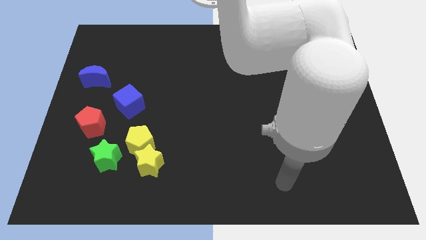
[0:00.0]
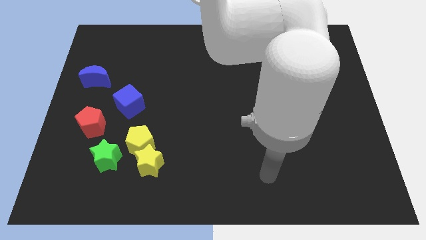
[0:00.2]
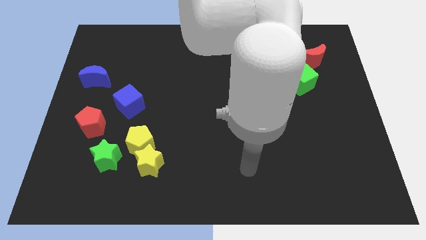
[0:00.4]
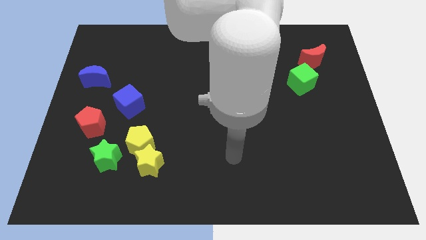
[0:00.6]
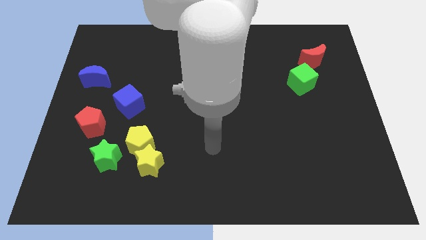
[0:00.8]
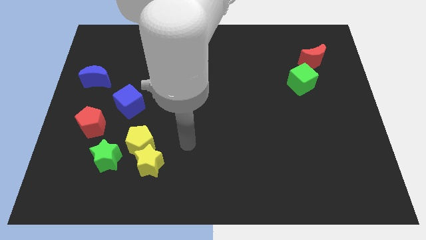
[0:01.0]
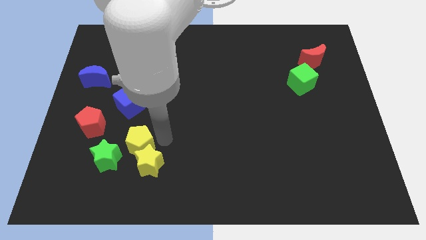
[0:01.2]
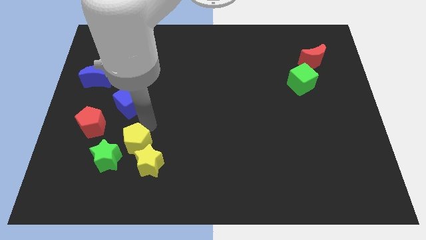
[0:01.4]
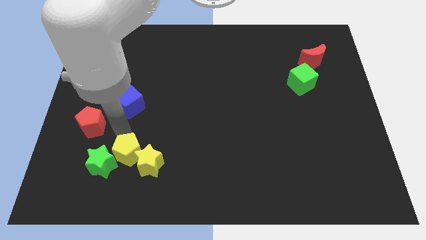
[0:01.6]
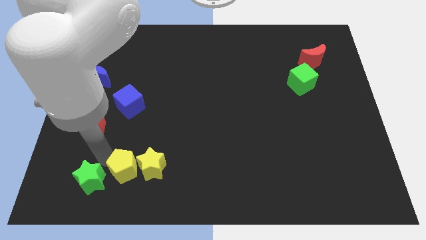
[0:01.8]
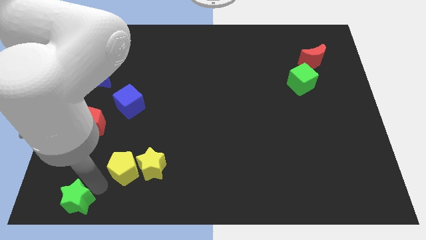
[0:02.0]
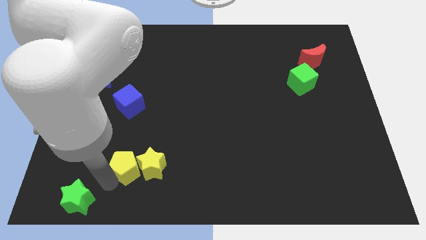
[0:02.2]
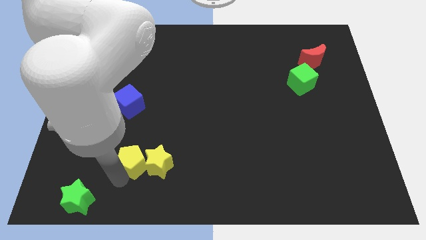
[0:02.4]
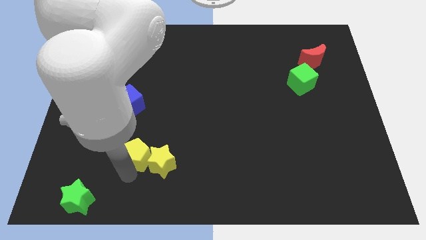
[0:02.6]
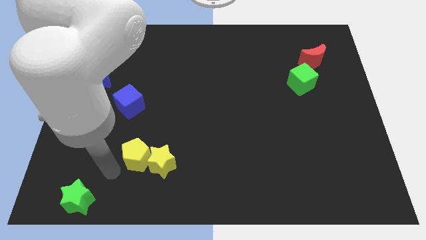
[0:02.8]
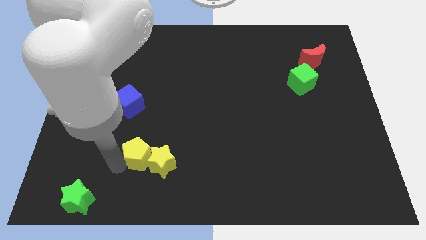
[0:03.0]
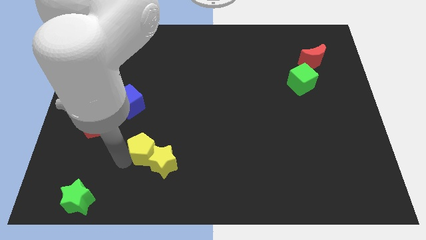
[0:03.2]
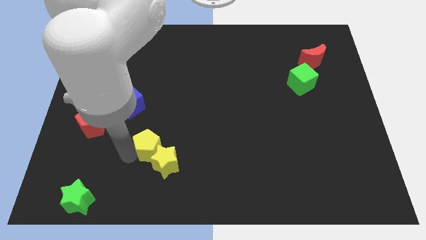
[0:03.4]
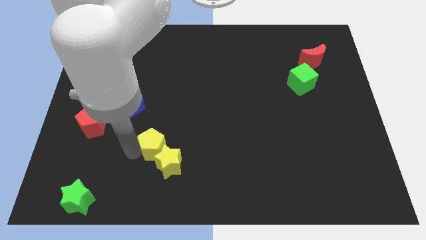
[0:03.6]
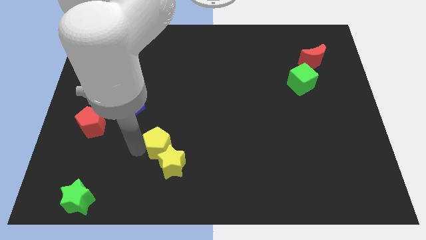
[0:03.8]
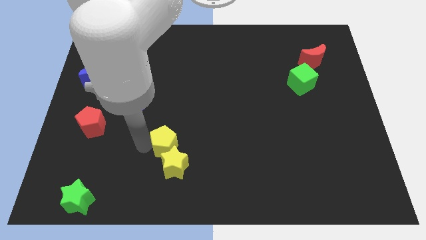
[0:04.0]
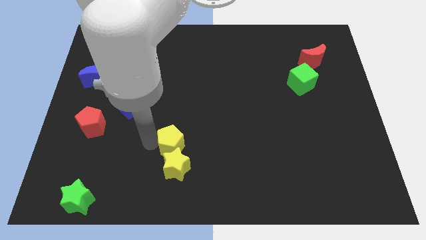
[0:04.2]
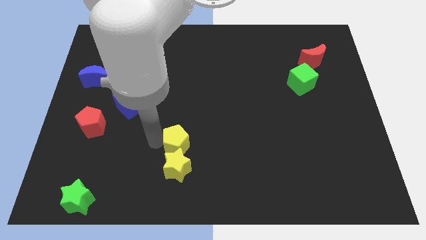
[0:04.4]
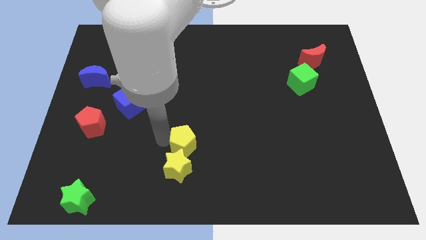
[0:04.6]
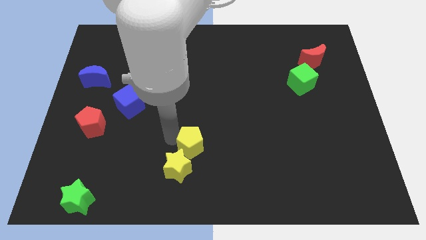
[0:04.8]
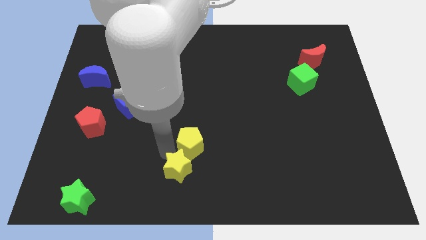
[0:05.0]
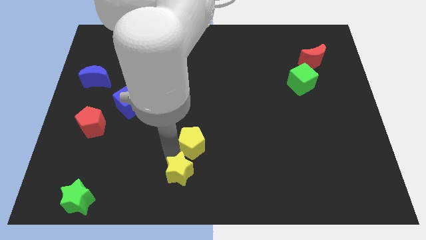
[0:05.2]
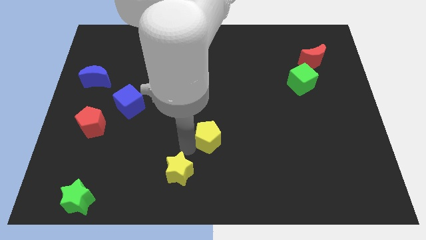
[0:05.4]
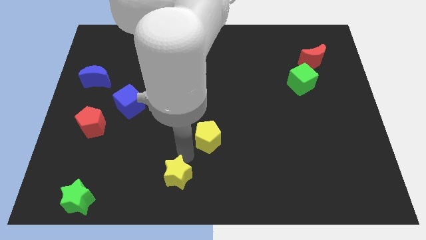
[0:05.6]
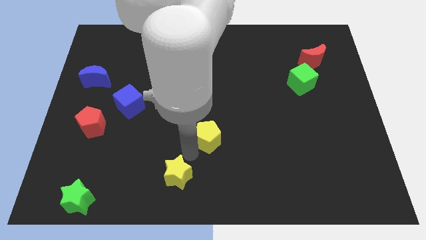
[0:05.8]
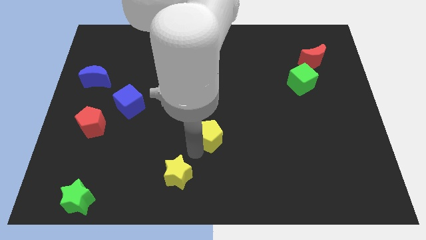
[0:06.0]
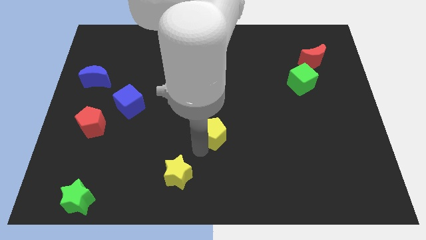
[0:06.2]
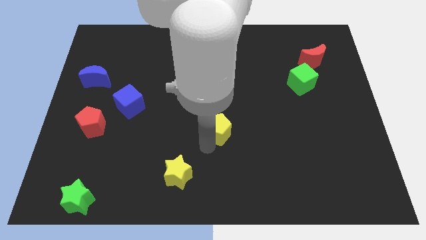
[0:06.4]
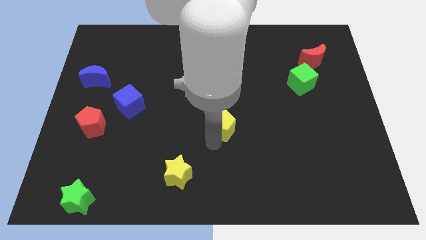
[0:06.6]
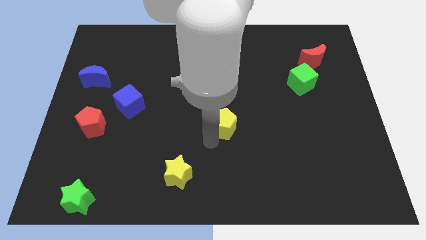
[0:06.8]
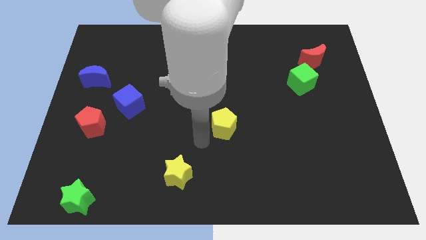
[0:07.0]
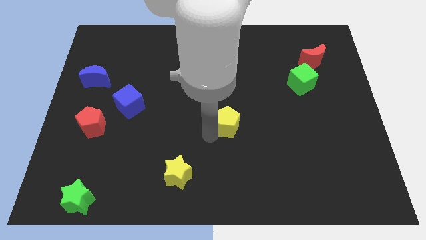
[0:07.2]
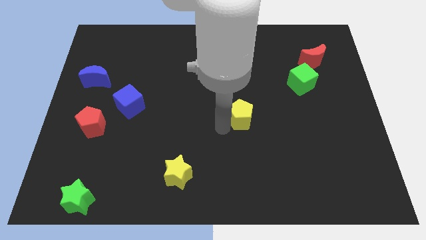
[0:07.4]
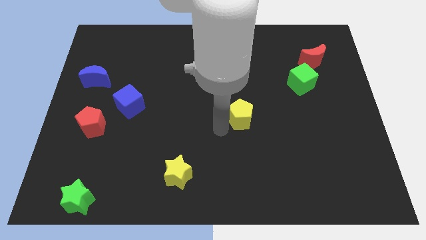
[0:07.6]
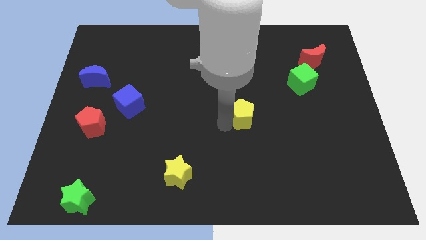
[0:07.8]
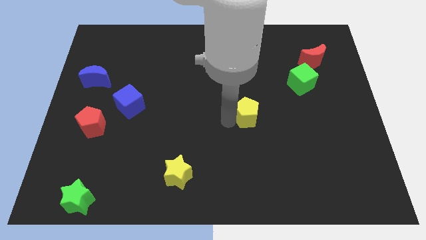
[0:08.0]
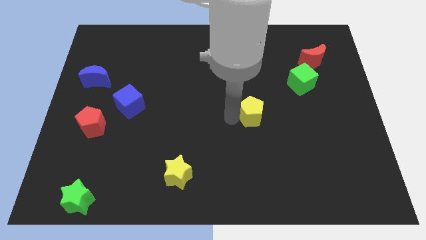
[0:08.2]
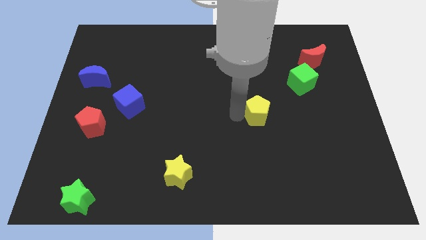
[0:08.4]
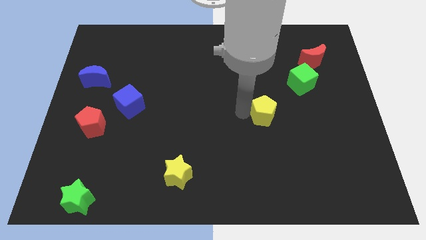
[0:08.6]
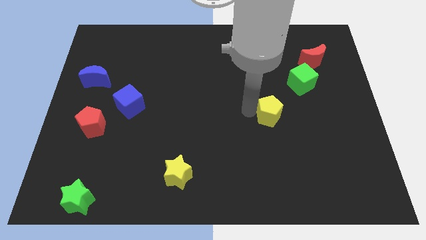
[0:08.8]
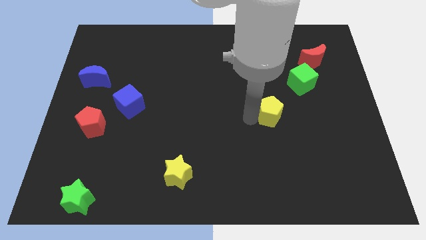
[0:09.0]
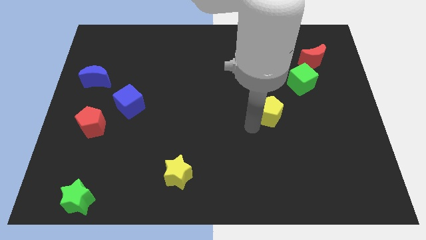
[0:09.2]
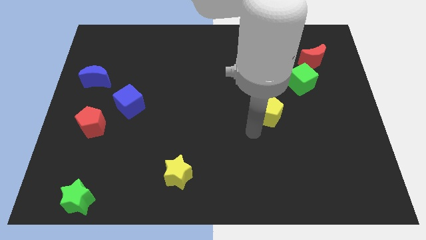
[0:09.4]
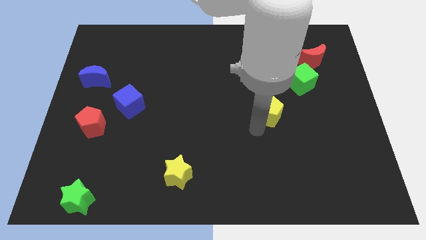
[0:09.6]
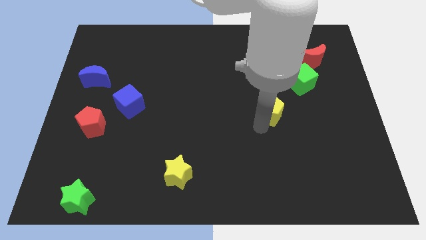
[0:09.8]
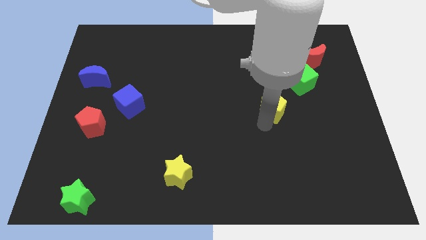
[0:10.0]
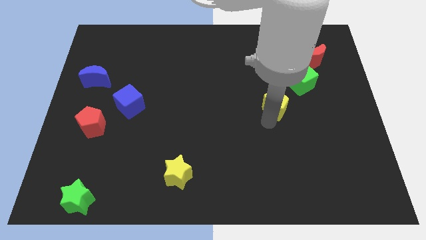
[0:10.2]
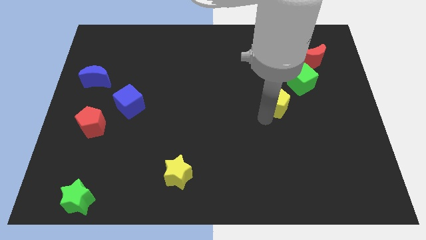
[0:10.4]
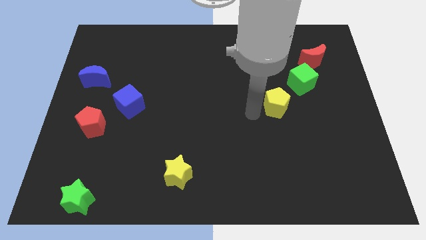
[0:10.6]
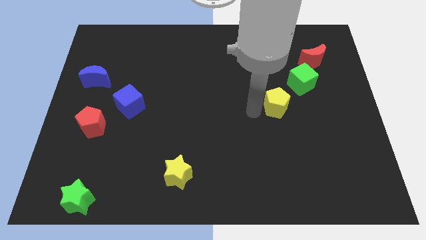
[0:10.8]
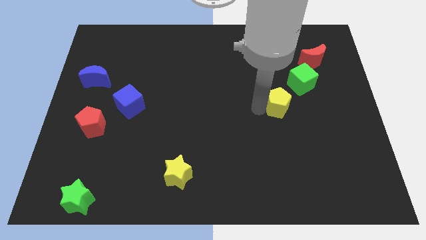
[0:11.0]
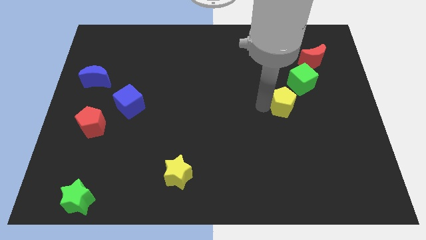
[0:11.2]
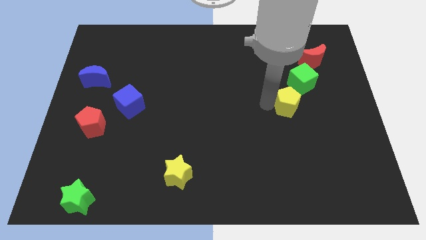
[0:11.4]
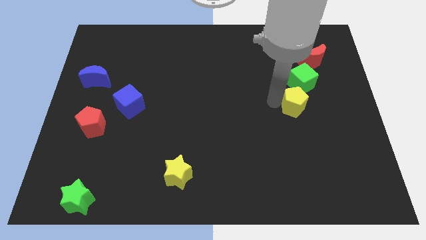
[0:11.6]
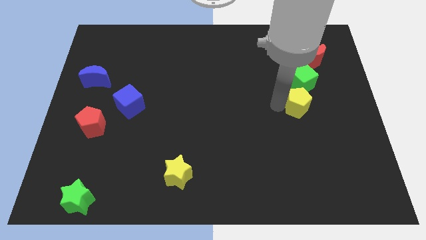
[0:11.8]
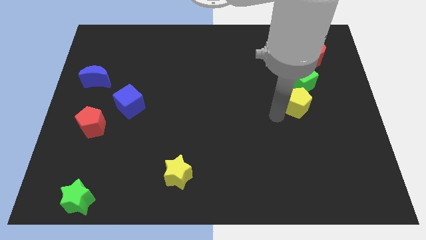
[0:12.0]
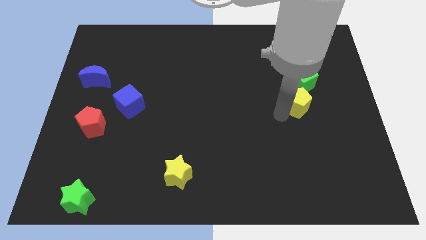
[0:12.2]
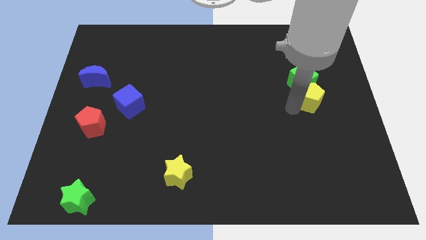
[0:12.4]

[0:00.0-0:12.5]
slide the yellow pentagon to the bottom of the red moon

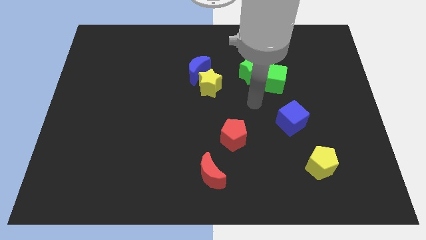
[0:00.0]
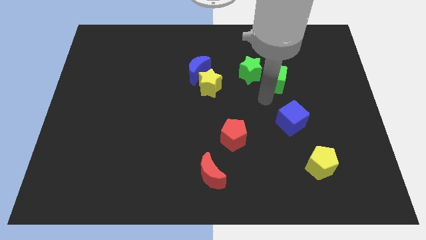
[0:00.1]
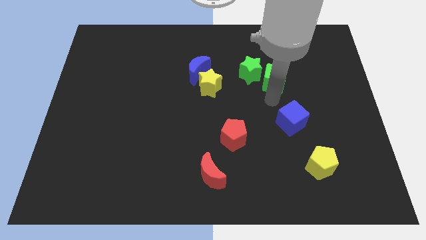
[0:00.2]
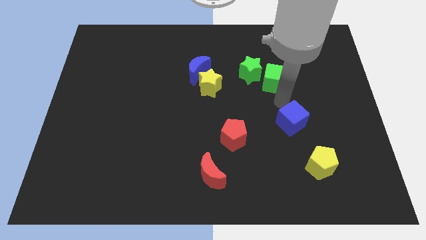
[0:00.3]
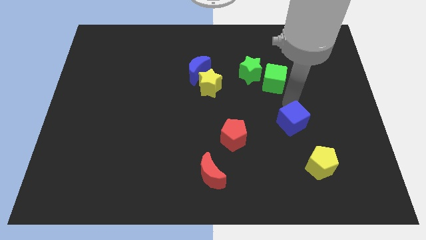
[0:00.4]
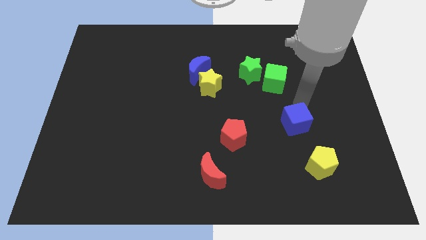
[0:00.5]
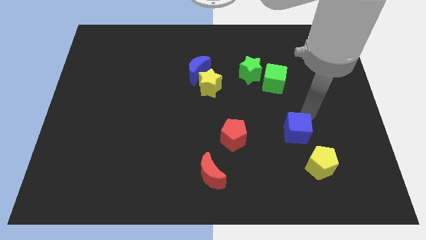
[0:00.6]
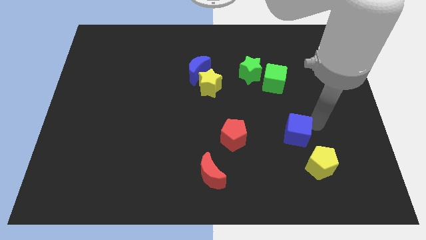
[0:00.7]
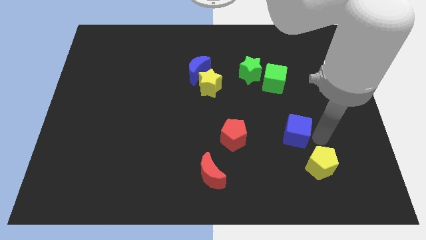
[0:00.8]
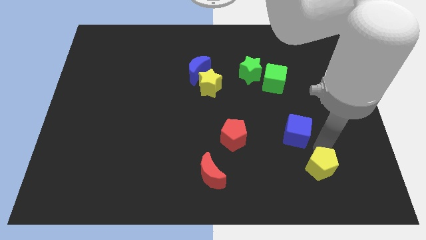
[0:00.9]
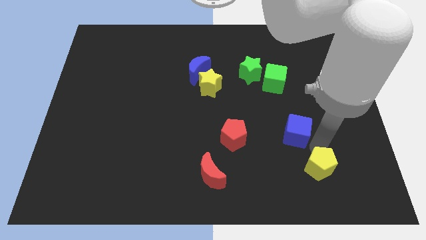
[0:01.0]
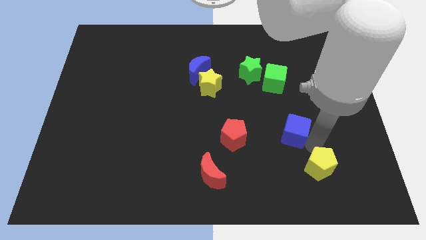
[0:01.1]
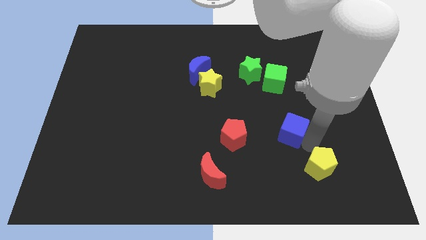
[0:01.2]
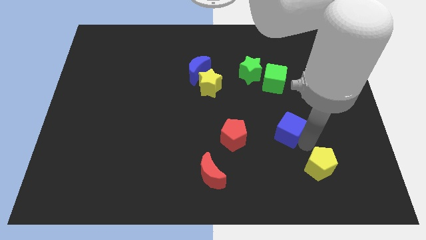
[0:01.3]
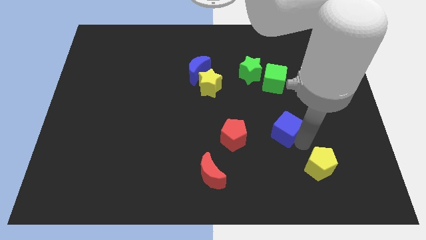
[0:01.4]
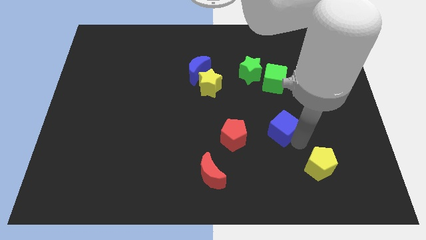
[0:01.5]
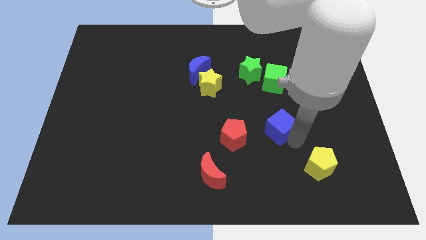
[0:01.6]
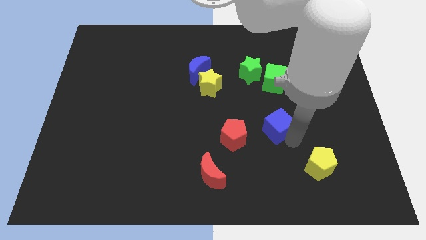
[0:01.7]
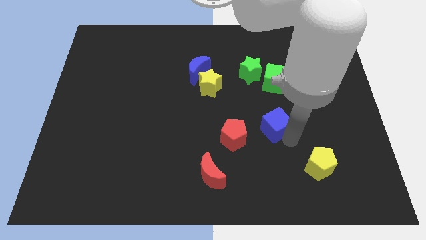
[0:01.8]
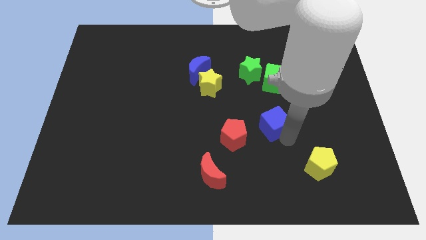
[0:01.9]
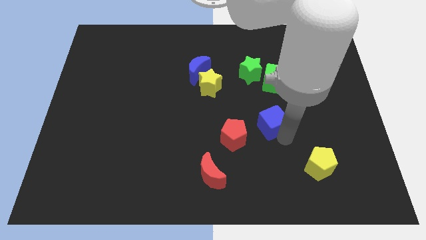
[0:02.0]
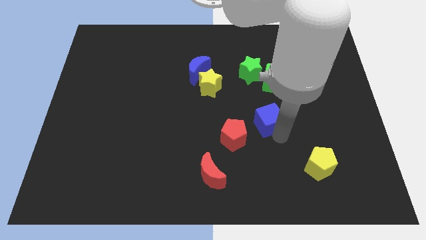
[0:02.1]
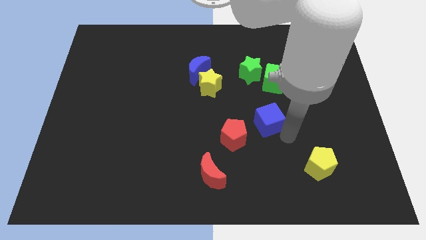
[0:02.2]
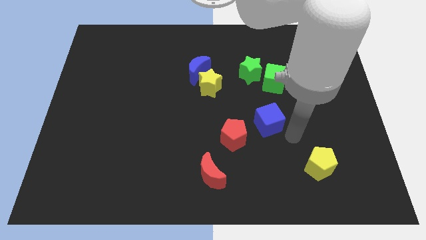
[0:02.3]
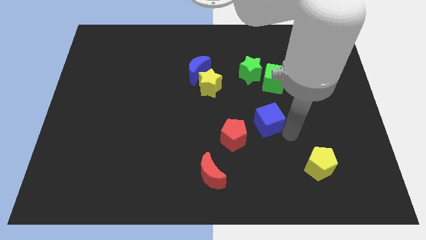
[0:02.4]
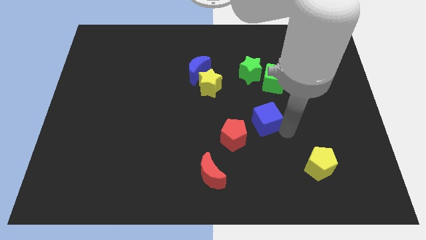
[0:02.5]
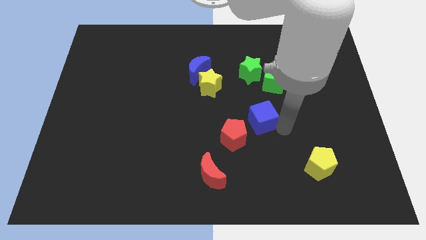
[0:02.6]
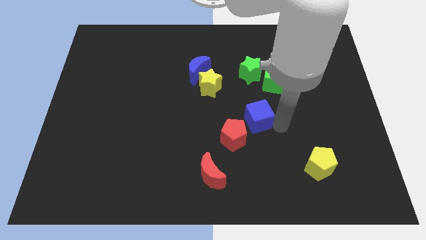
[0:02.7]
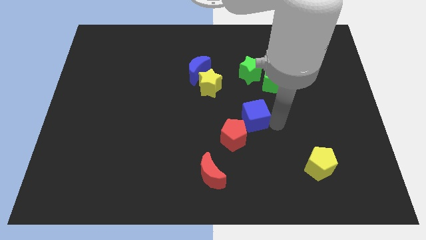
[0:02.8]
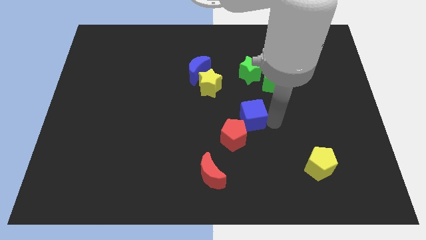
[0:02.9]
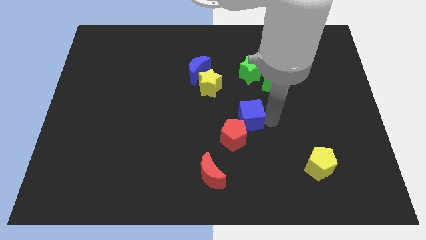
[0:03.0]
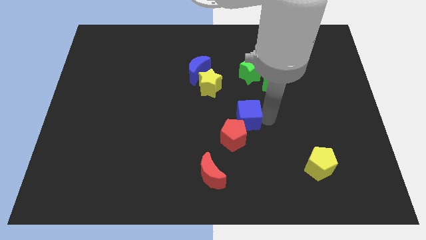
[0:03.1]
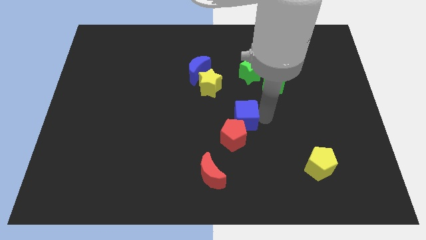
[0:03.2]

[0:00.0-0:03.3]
push the blue cube diagonally down and to the right of the yellow star
